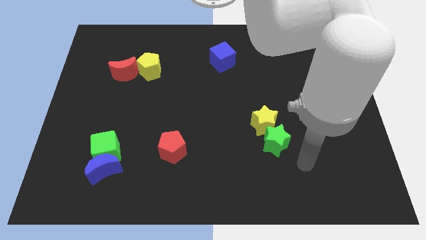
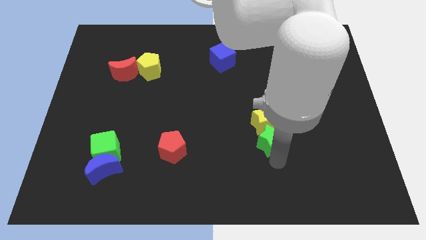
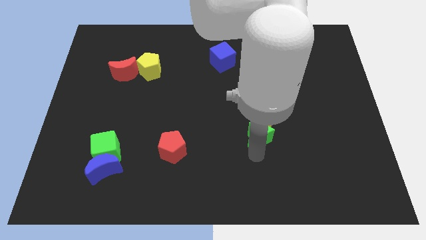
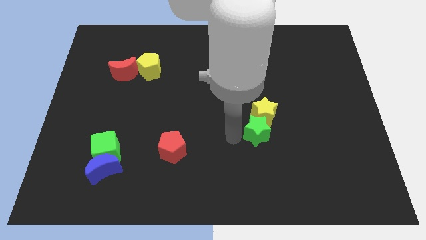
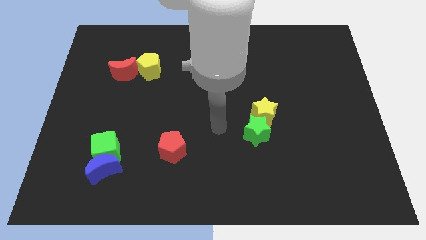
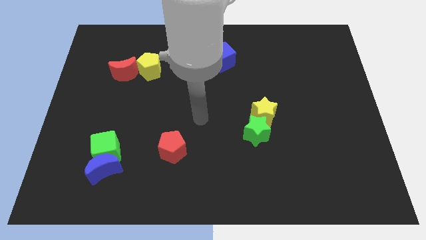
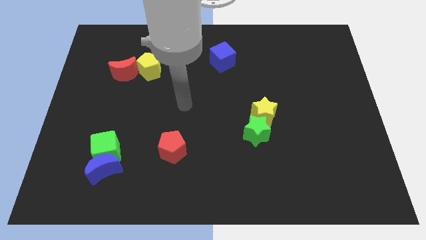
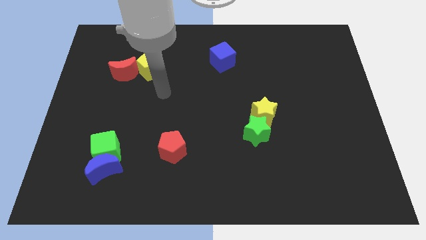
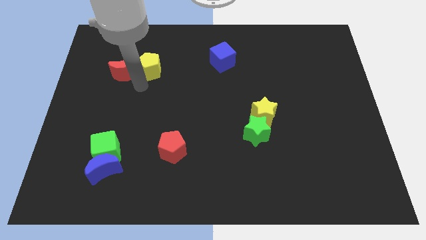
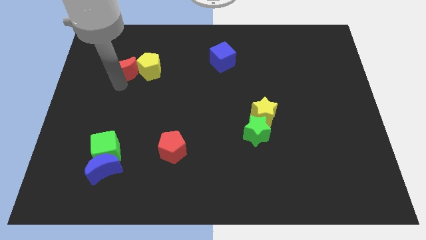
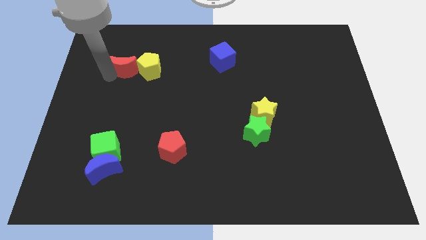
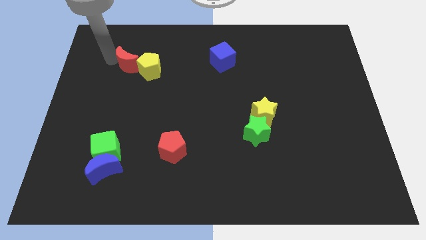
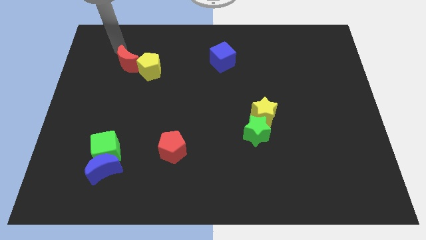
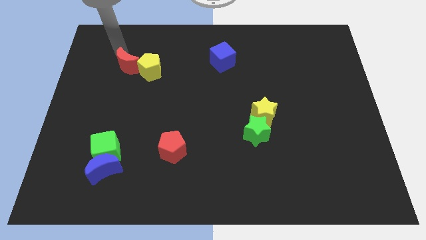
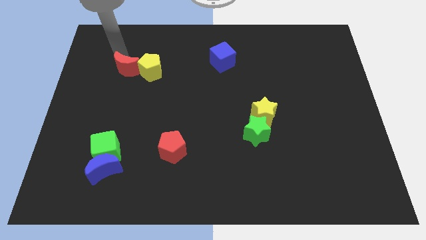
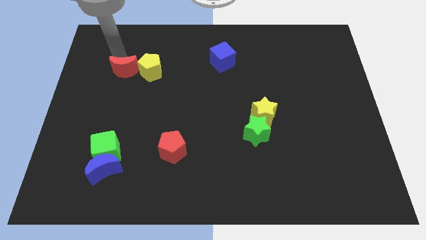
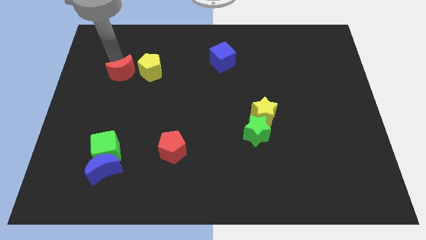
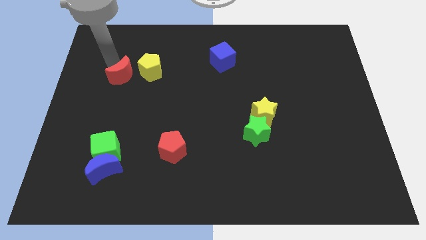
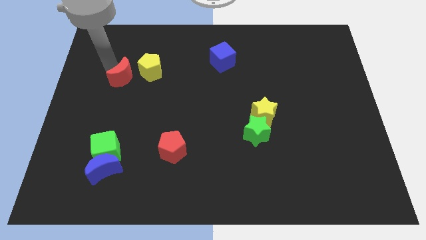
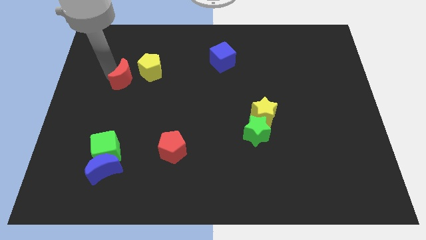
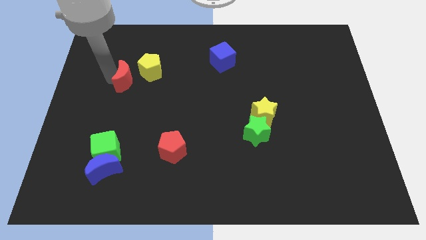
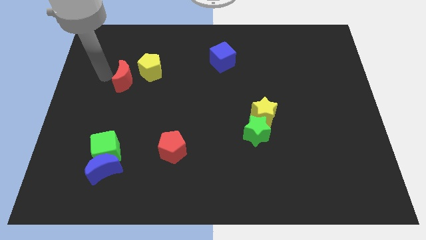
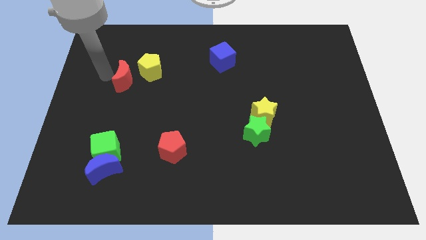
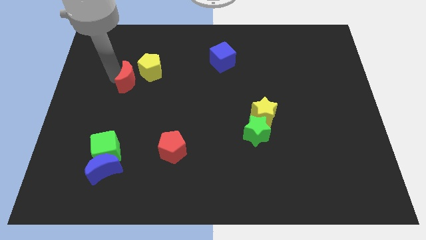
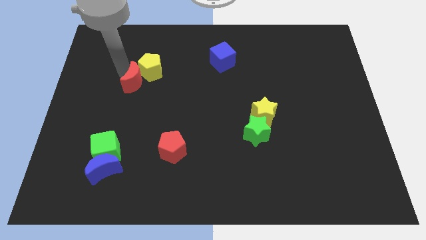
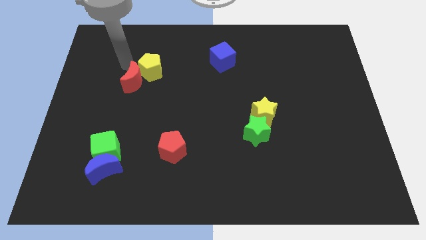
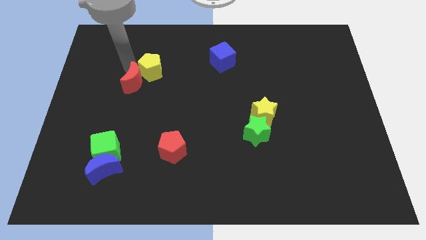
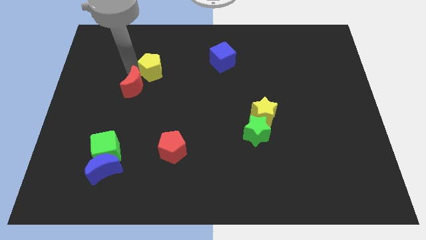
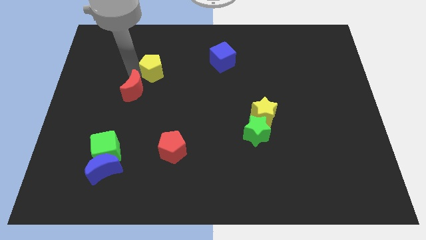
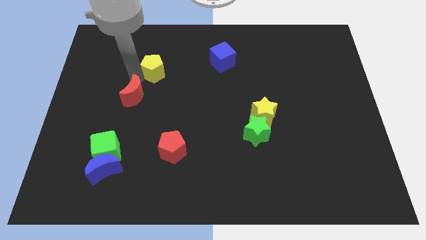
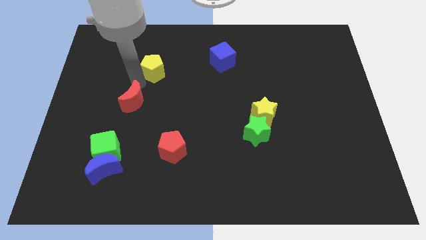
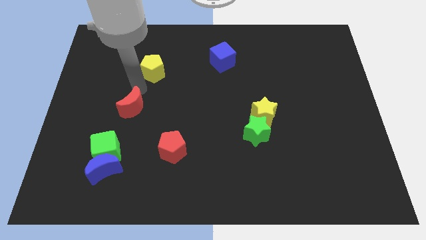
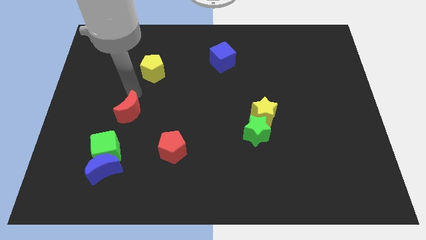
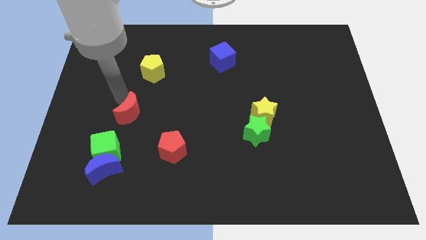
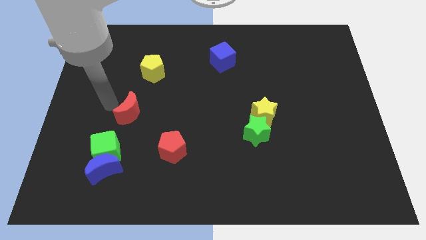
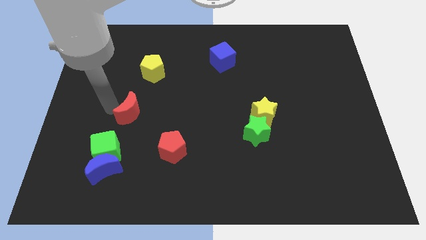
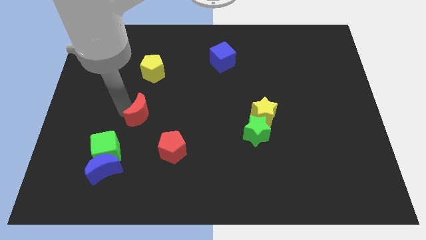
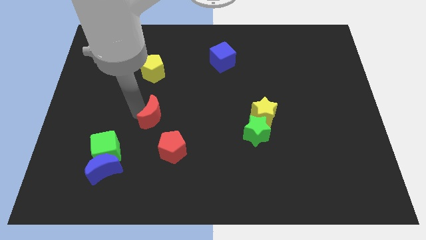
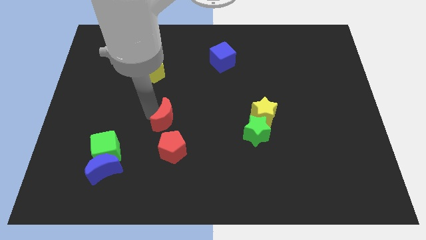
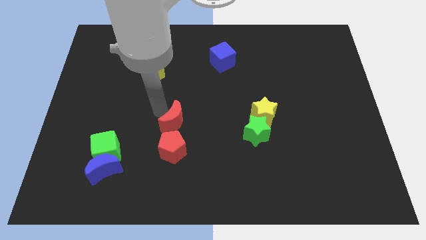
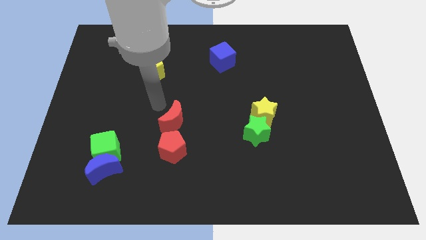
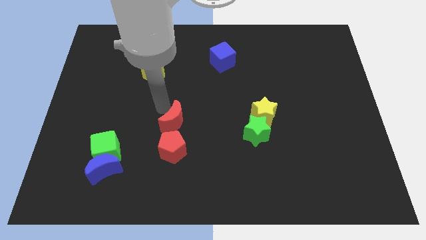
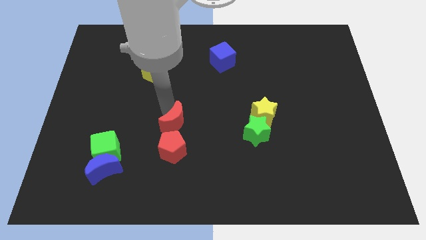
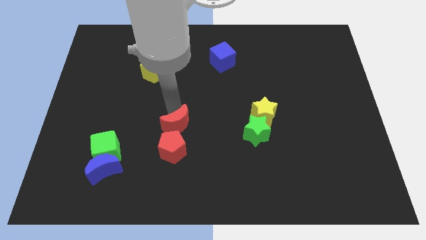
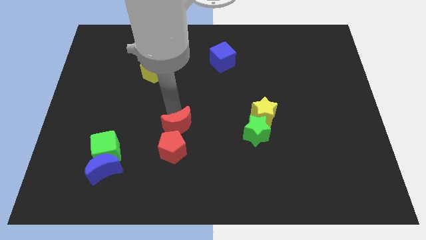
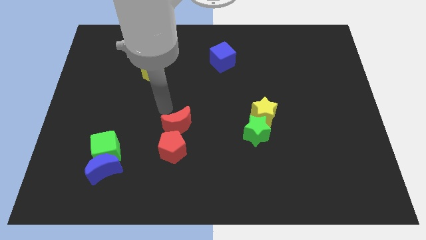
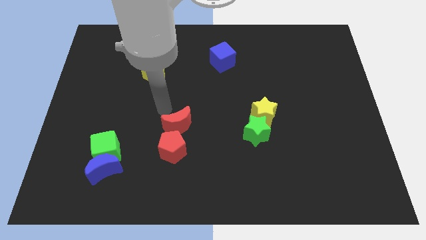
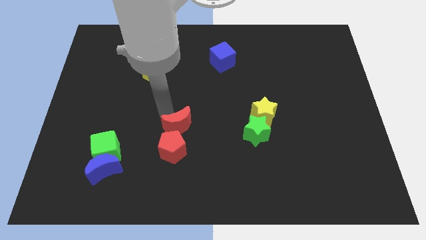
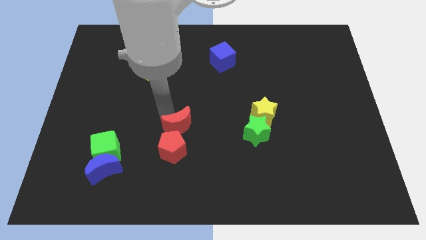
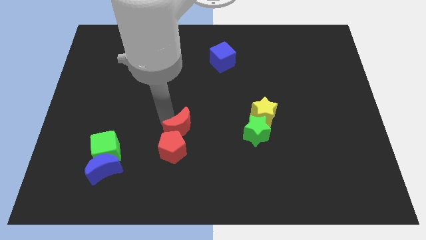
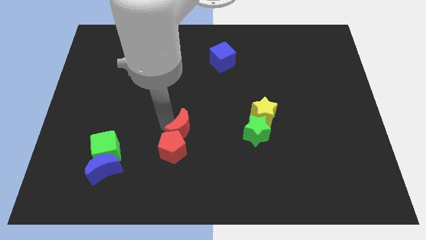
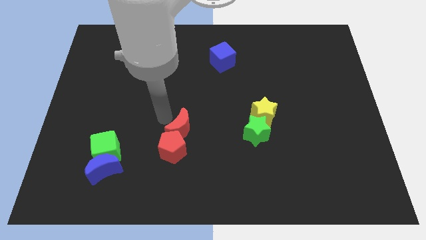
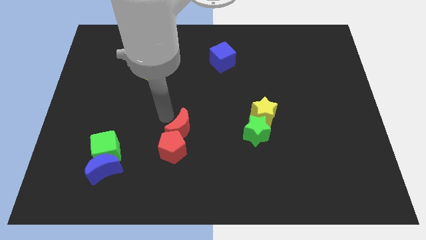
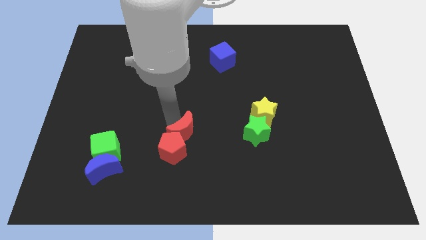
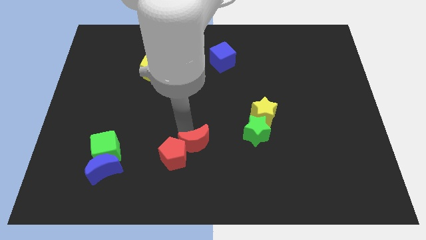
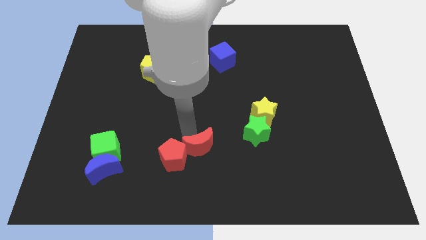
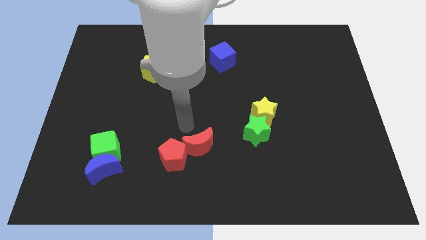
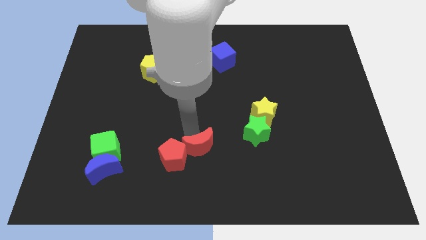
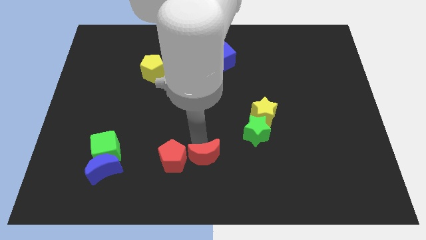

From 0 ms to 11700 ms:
move the red moon to the bottom
